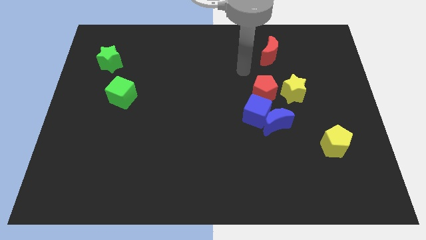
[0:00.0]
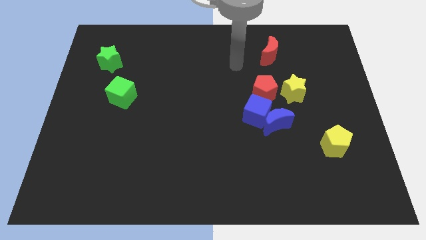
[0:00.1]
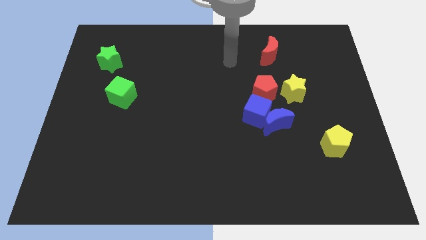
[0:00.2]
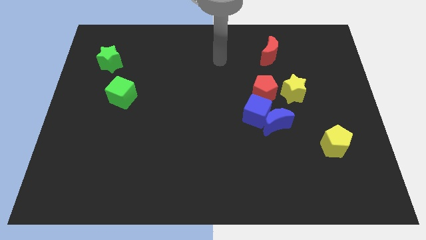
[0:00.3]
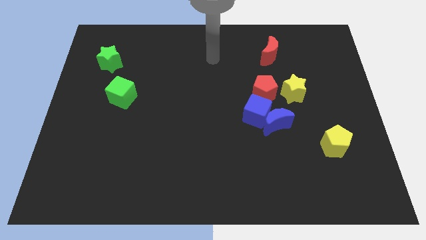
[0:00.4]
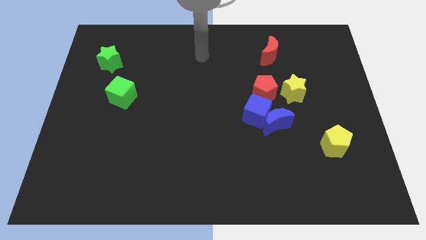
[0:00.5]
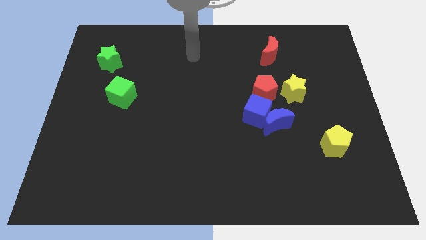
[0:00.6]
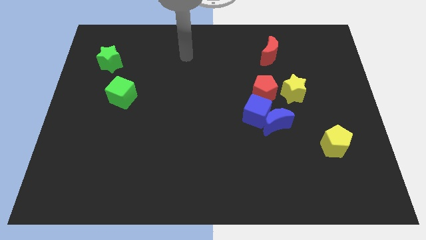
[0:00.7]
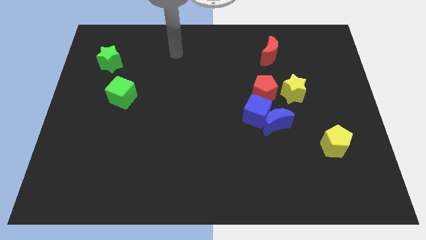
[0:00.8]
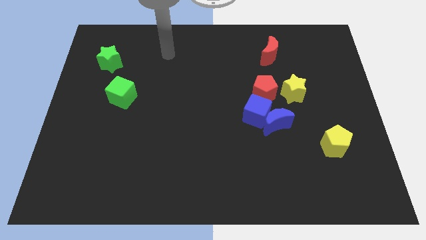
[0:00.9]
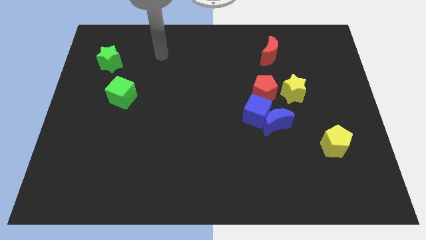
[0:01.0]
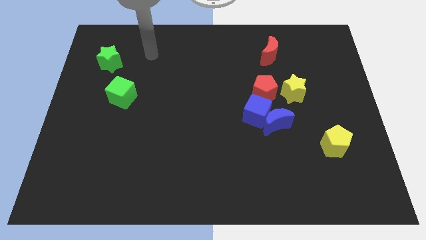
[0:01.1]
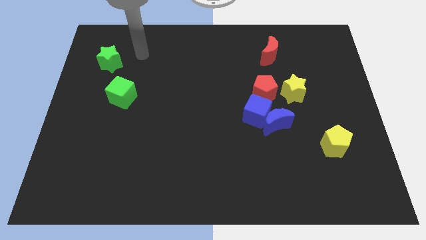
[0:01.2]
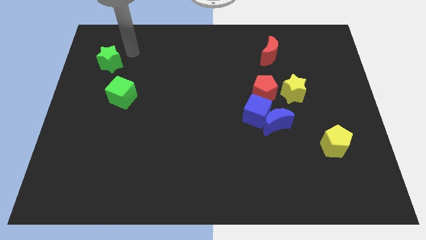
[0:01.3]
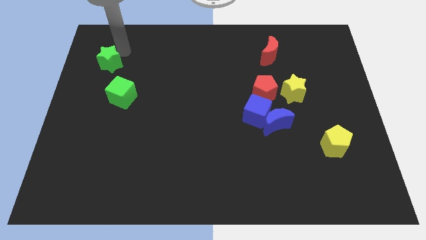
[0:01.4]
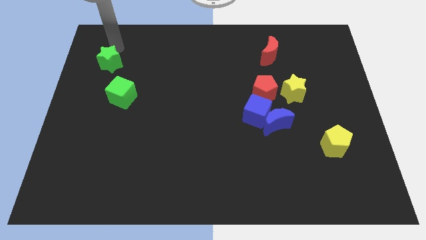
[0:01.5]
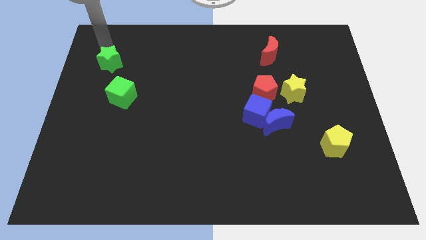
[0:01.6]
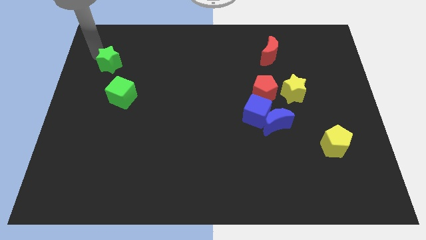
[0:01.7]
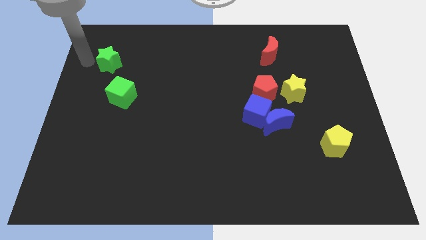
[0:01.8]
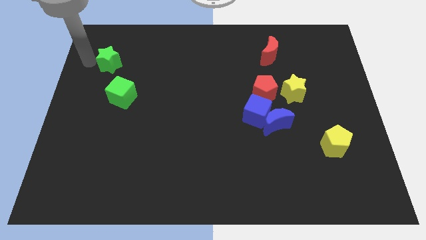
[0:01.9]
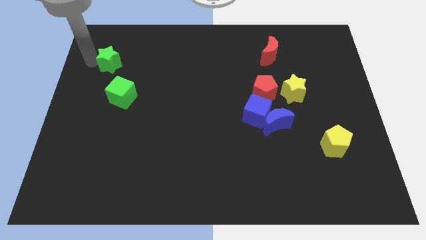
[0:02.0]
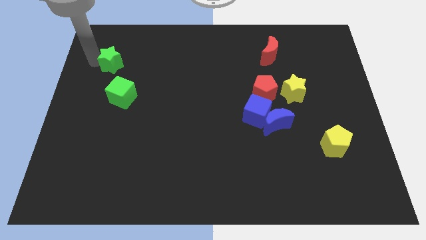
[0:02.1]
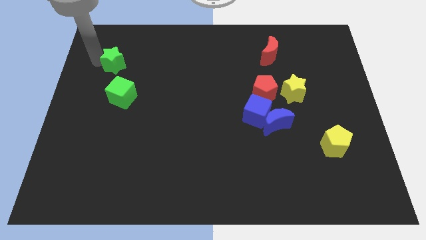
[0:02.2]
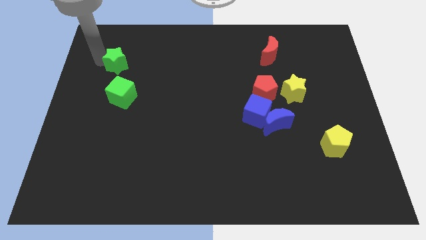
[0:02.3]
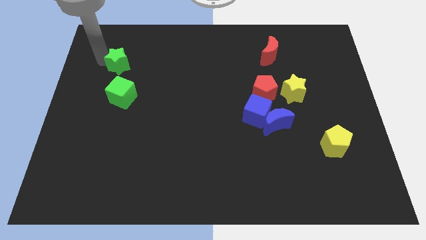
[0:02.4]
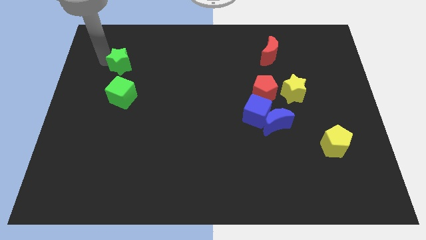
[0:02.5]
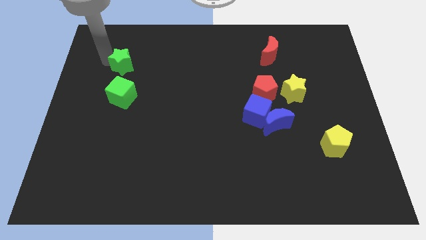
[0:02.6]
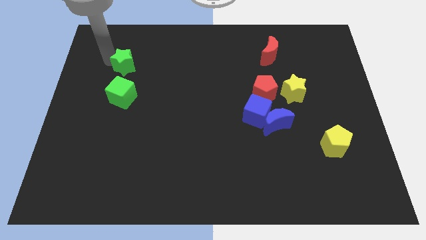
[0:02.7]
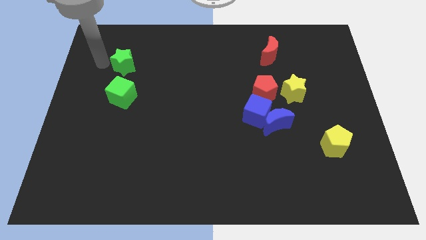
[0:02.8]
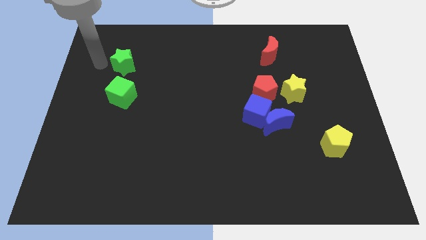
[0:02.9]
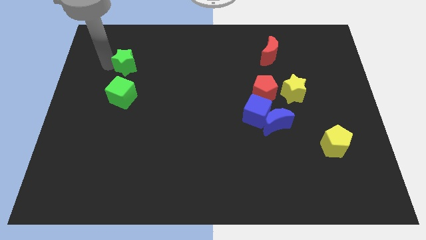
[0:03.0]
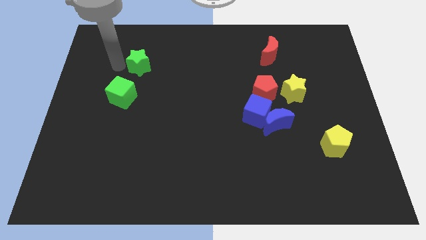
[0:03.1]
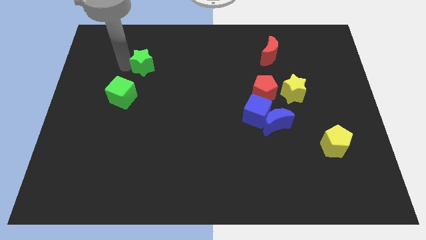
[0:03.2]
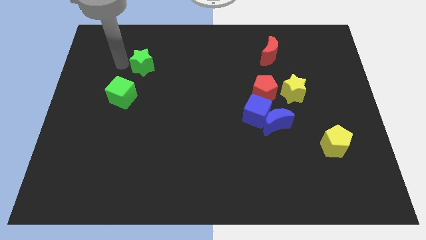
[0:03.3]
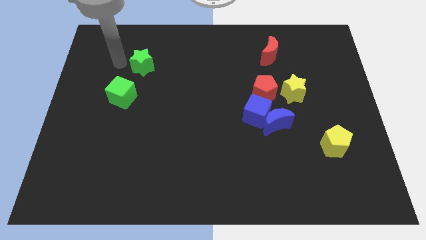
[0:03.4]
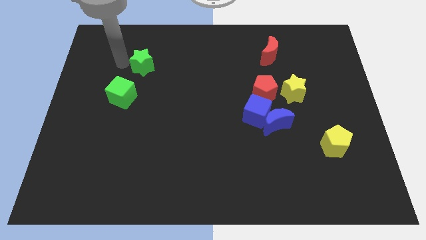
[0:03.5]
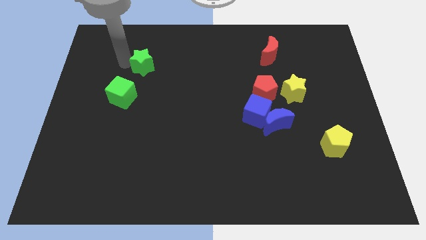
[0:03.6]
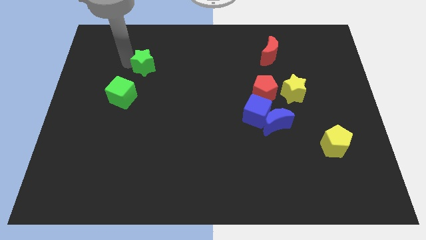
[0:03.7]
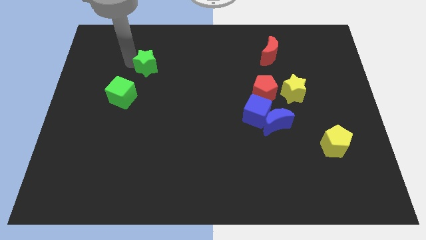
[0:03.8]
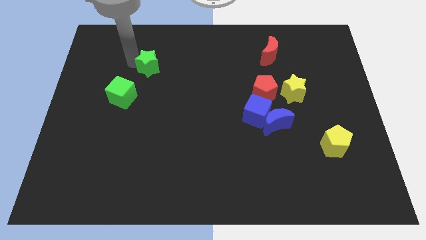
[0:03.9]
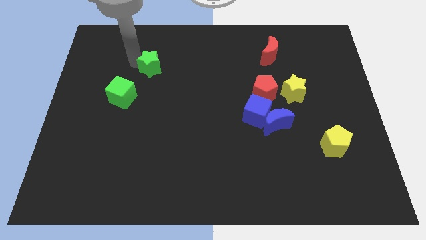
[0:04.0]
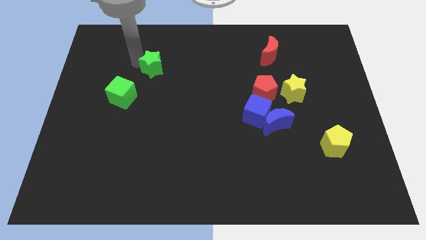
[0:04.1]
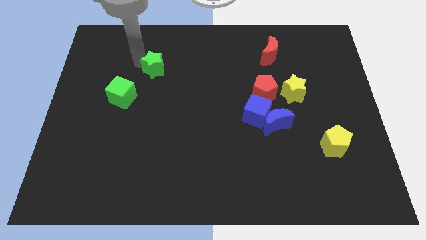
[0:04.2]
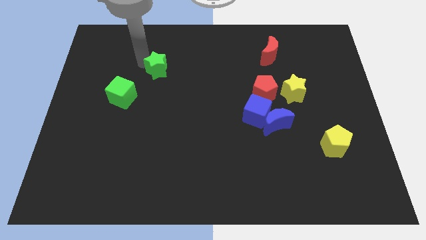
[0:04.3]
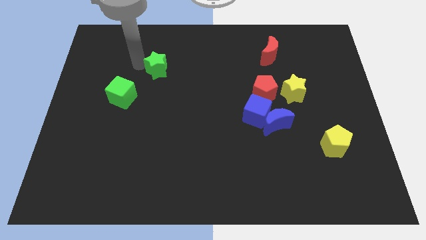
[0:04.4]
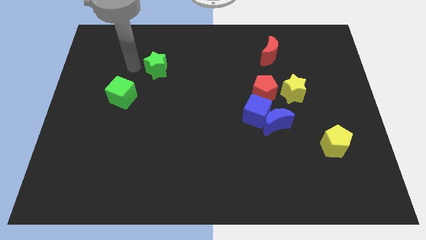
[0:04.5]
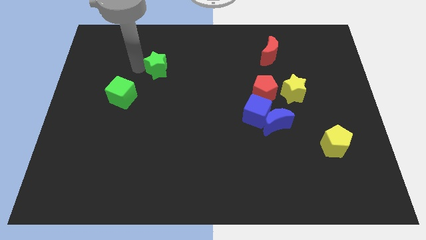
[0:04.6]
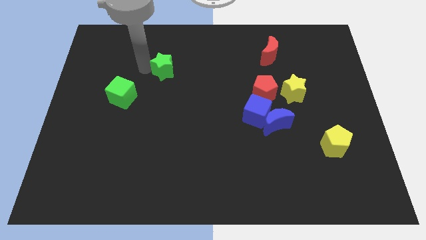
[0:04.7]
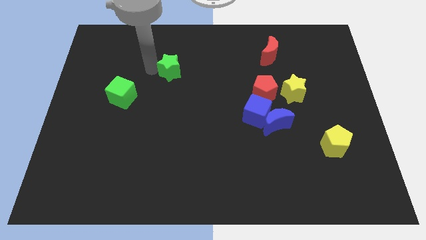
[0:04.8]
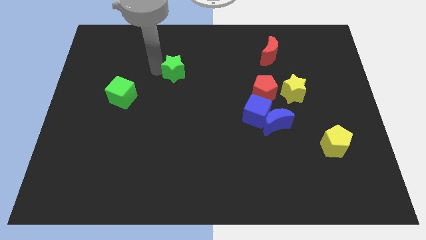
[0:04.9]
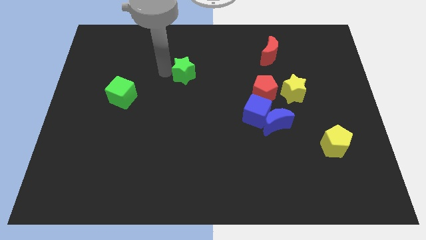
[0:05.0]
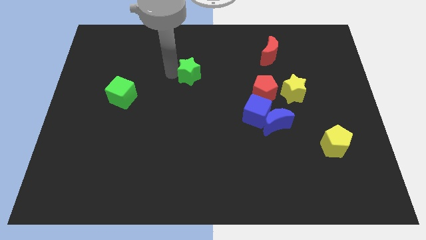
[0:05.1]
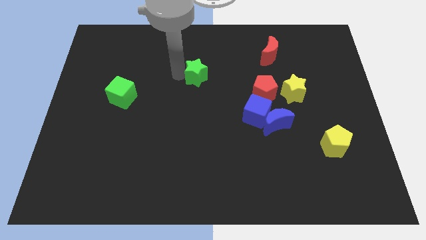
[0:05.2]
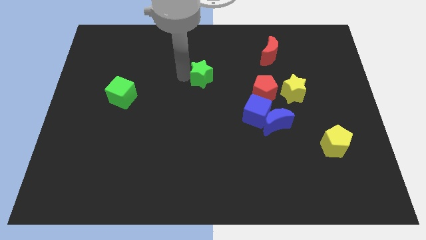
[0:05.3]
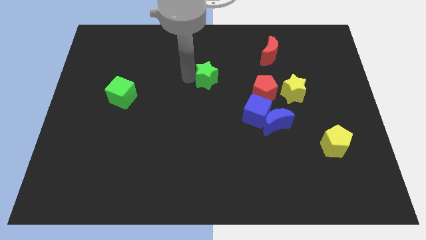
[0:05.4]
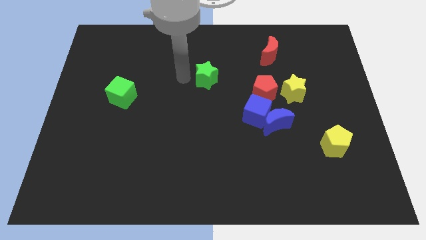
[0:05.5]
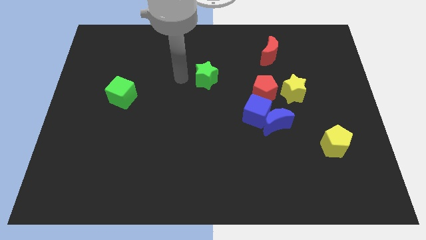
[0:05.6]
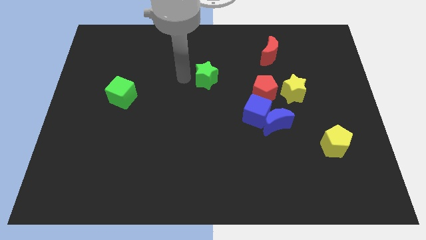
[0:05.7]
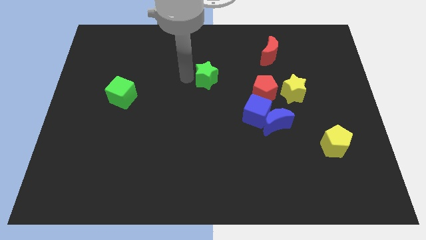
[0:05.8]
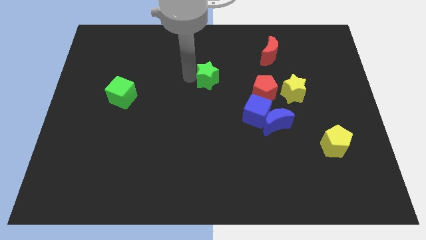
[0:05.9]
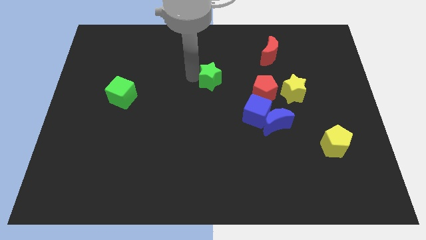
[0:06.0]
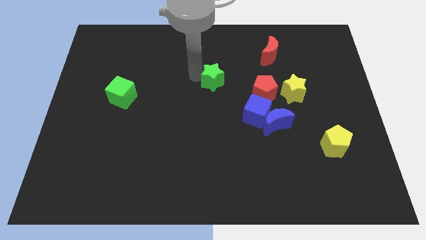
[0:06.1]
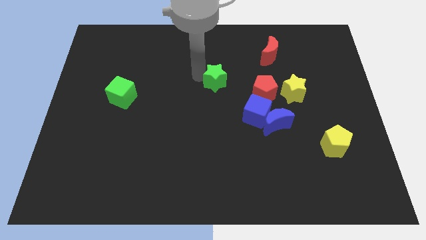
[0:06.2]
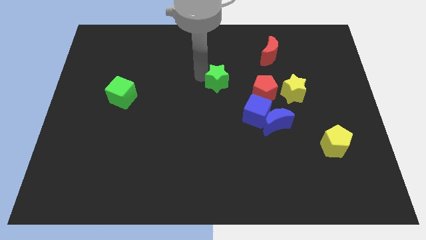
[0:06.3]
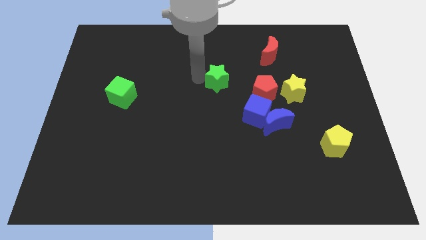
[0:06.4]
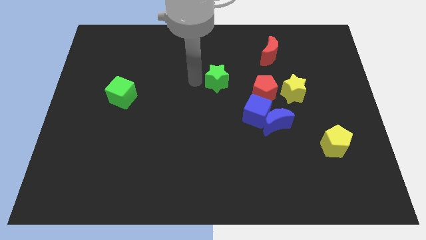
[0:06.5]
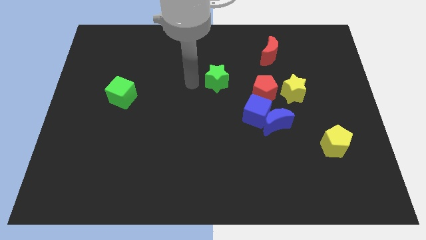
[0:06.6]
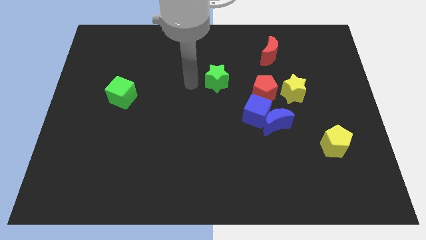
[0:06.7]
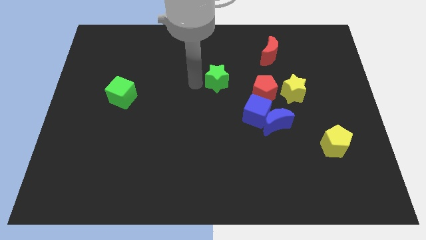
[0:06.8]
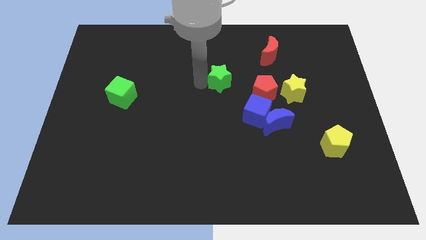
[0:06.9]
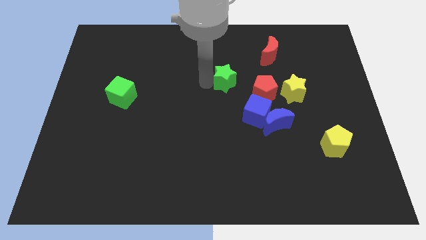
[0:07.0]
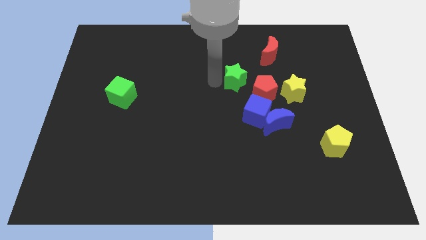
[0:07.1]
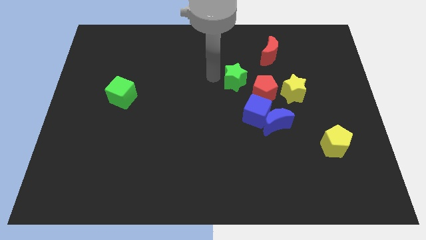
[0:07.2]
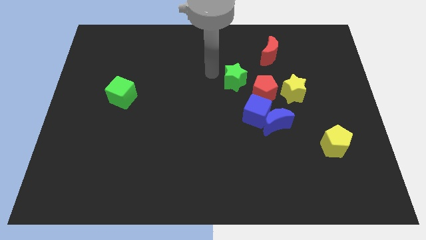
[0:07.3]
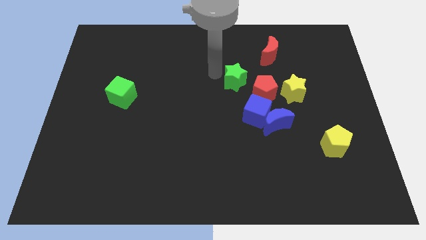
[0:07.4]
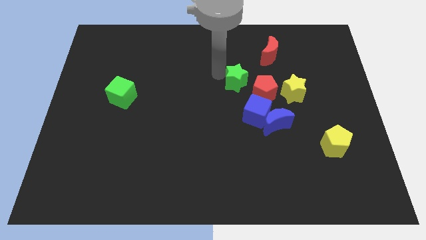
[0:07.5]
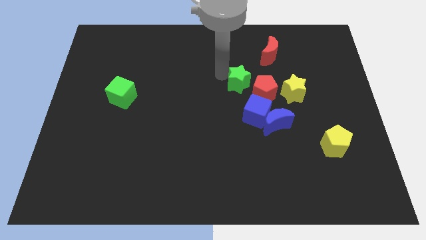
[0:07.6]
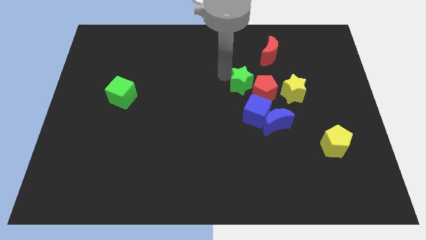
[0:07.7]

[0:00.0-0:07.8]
push the green star next to the red pentagon
